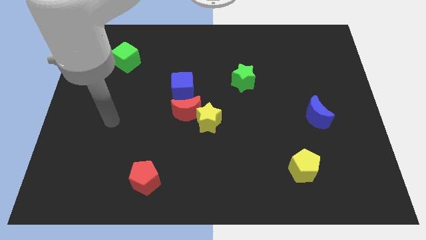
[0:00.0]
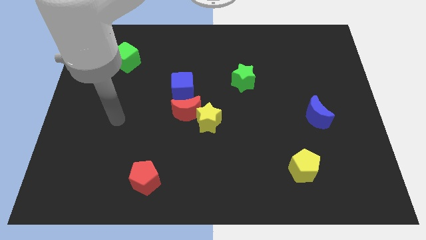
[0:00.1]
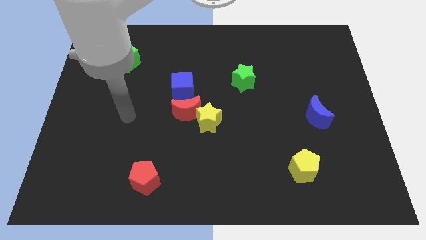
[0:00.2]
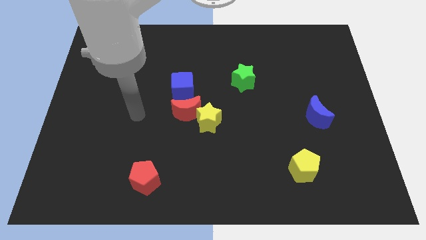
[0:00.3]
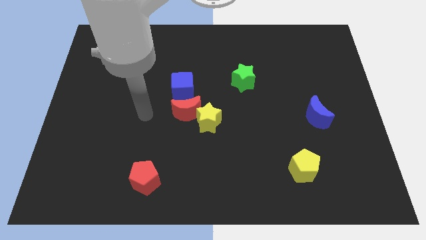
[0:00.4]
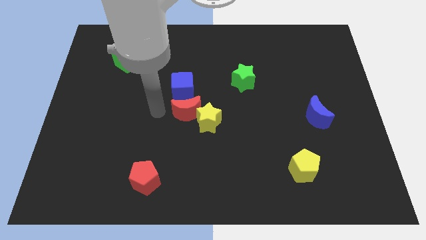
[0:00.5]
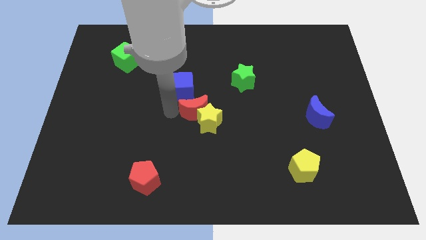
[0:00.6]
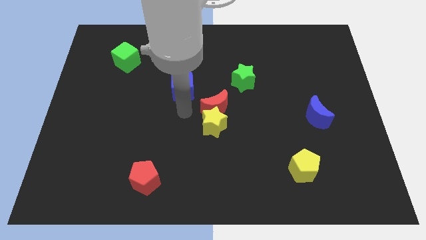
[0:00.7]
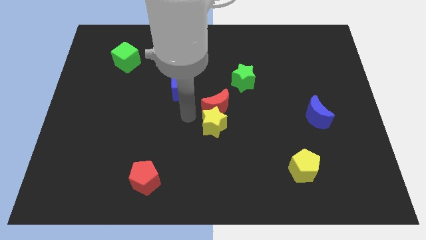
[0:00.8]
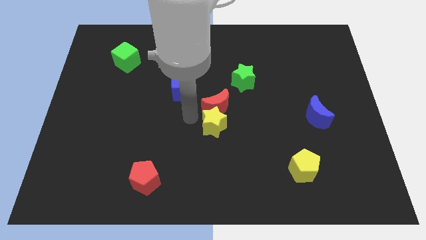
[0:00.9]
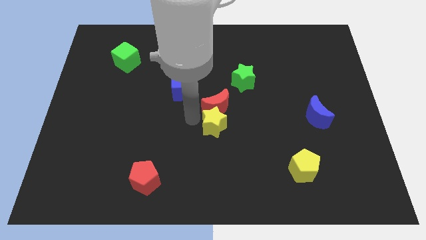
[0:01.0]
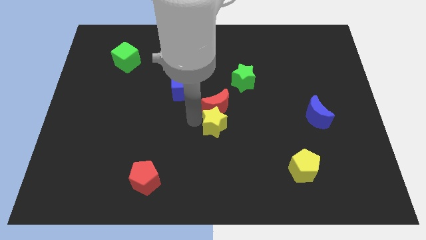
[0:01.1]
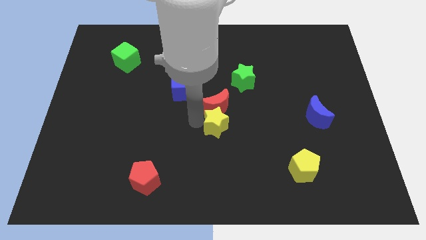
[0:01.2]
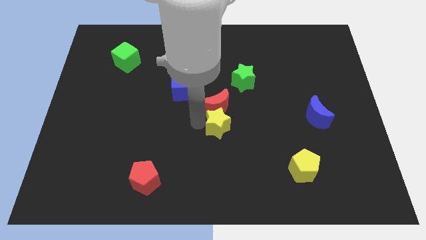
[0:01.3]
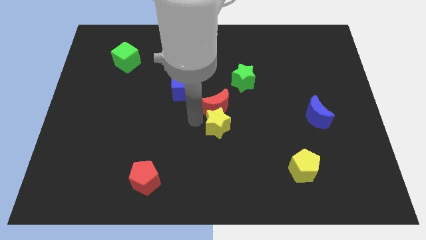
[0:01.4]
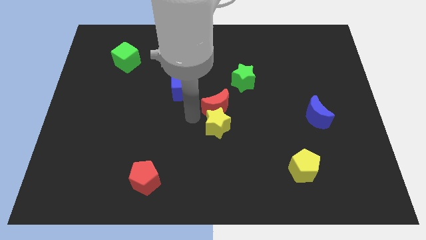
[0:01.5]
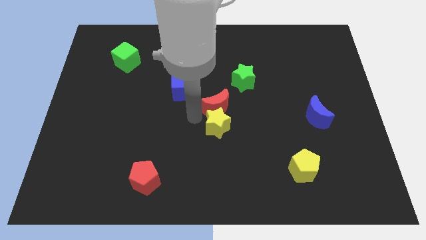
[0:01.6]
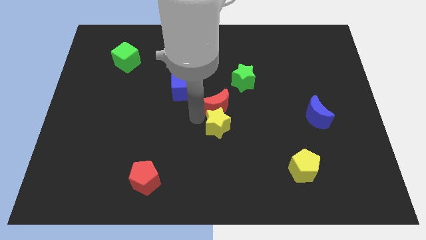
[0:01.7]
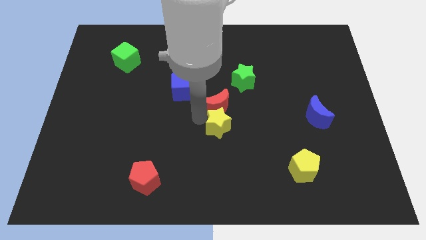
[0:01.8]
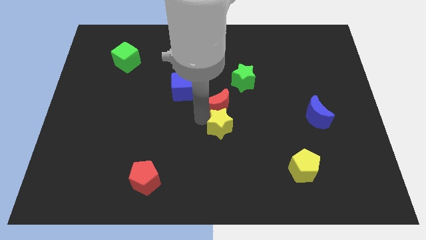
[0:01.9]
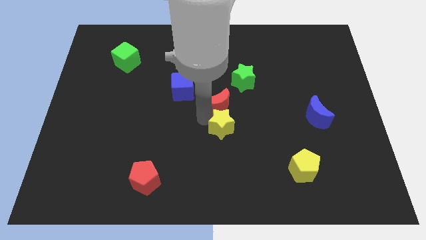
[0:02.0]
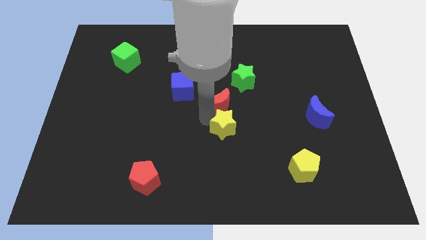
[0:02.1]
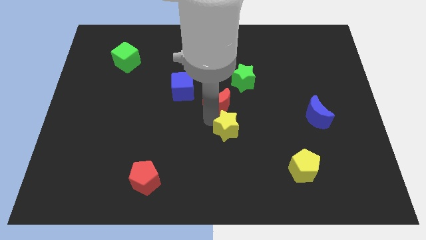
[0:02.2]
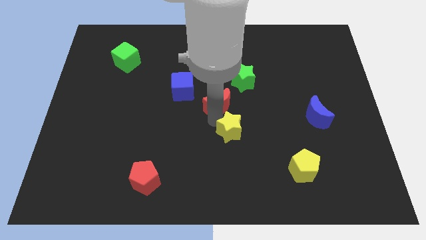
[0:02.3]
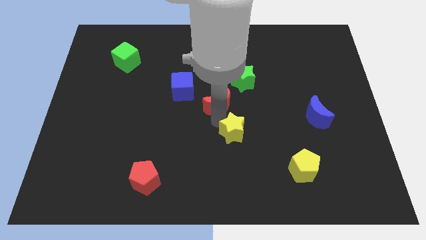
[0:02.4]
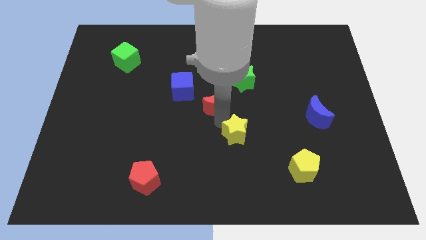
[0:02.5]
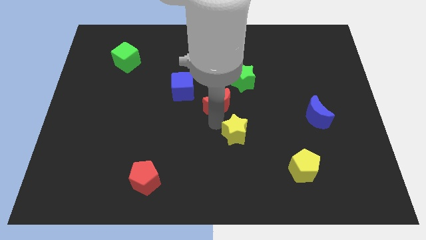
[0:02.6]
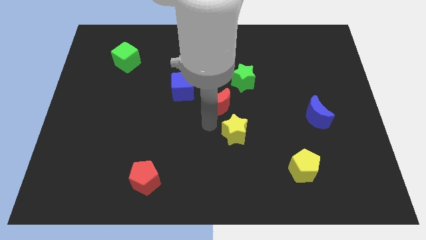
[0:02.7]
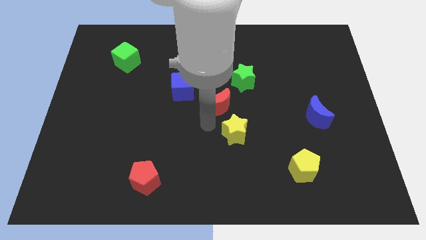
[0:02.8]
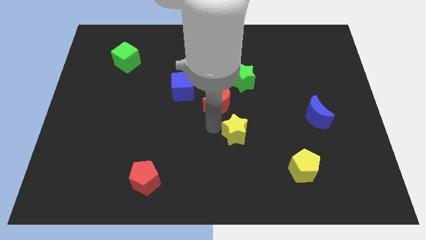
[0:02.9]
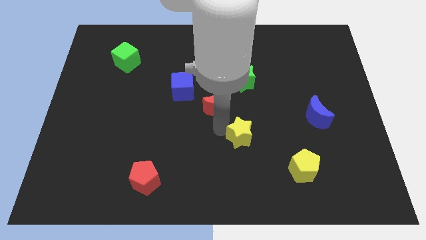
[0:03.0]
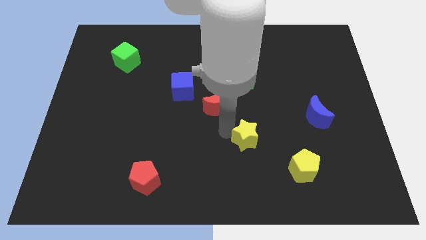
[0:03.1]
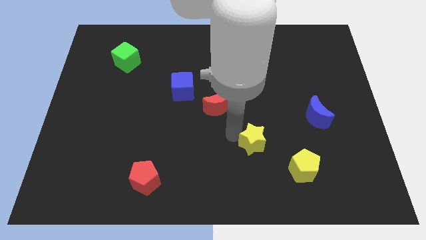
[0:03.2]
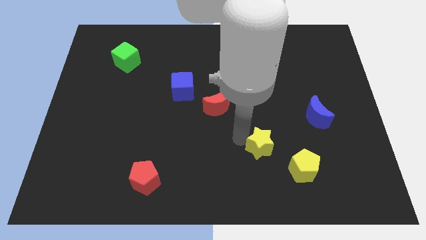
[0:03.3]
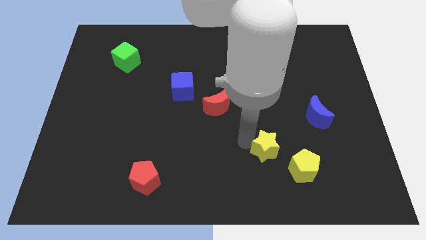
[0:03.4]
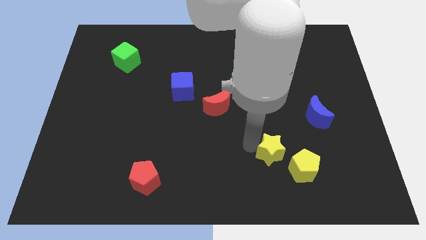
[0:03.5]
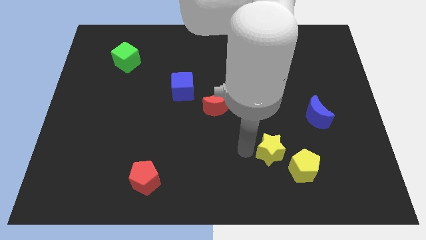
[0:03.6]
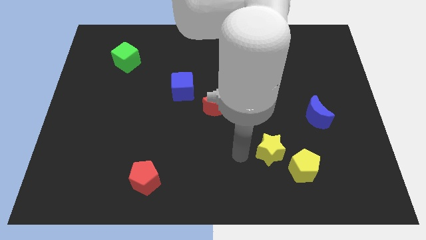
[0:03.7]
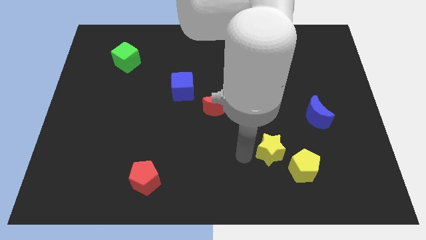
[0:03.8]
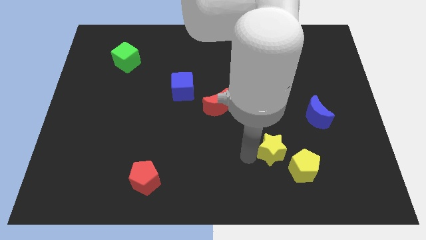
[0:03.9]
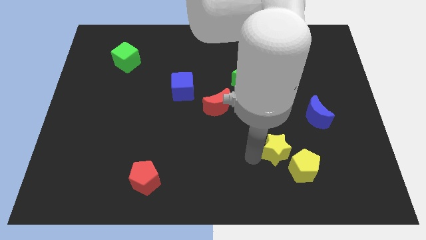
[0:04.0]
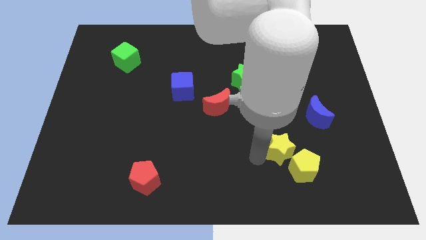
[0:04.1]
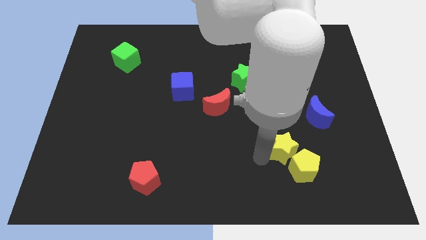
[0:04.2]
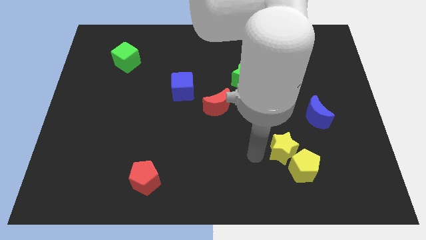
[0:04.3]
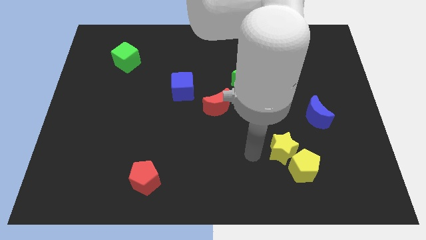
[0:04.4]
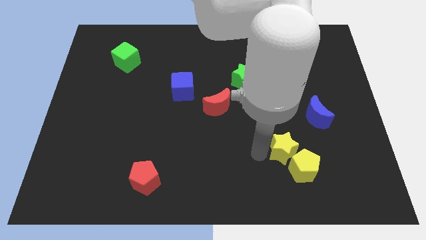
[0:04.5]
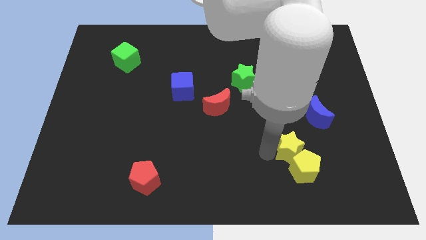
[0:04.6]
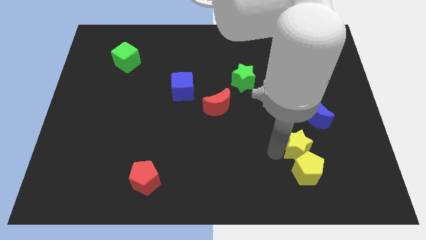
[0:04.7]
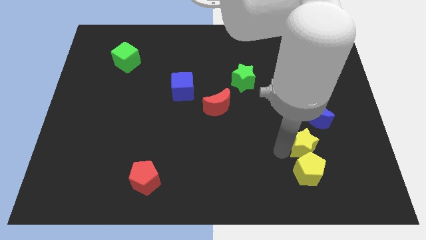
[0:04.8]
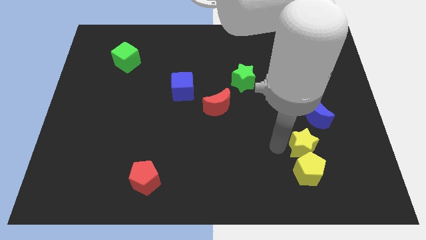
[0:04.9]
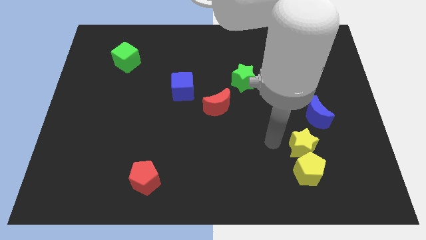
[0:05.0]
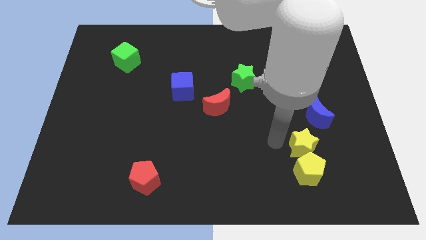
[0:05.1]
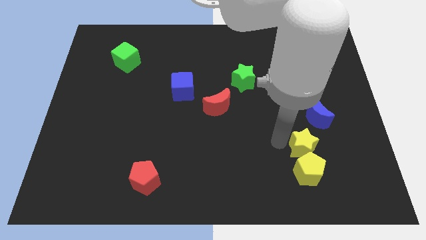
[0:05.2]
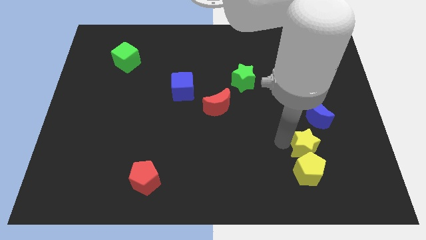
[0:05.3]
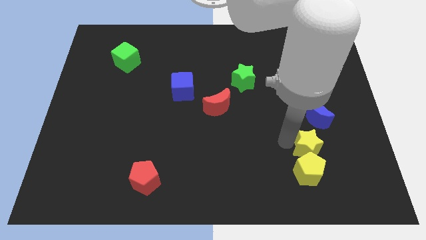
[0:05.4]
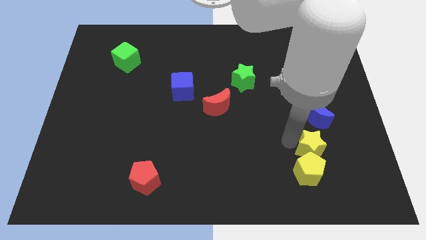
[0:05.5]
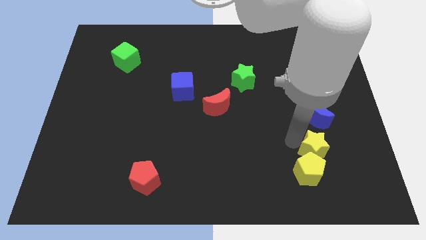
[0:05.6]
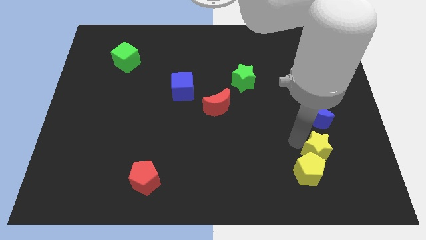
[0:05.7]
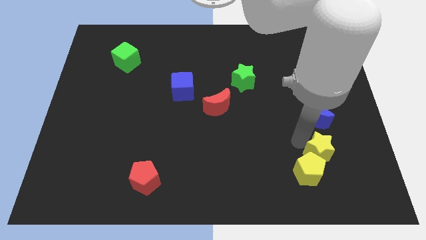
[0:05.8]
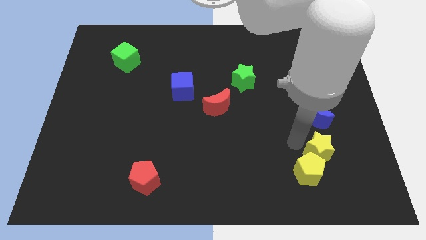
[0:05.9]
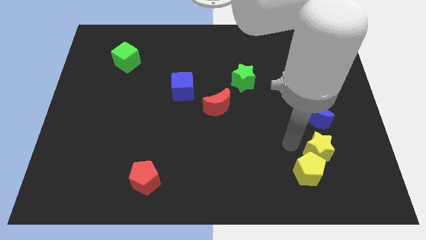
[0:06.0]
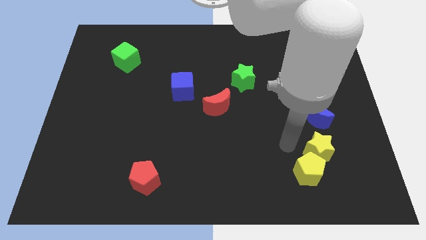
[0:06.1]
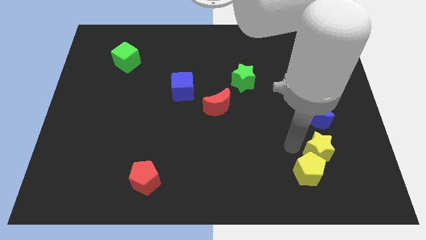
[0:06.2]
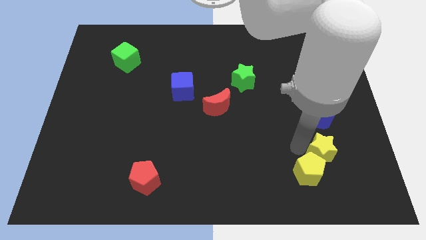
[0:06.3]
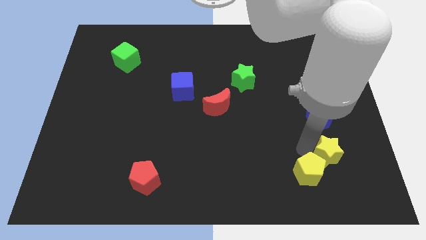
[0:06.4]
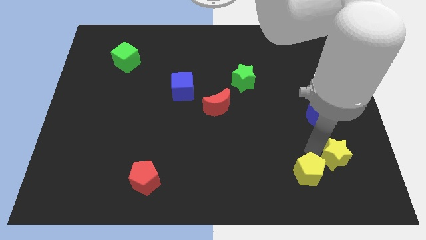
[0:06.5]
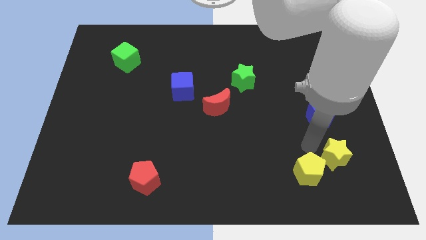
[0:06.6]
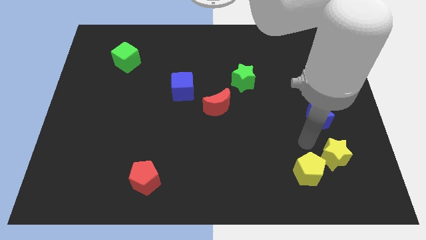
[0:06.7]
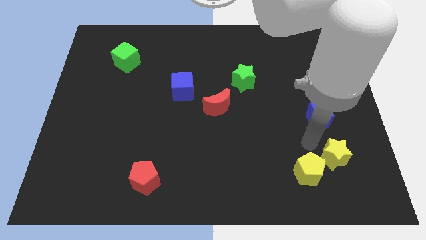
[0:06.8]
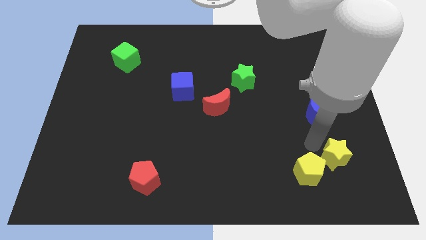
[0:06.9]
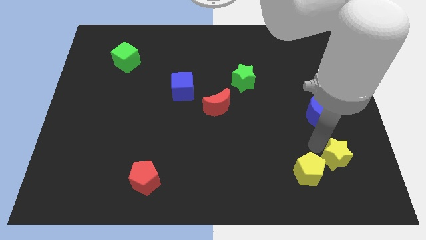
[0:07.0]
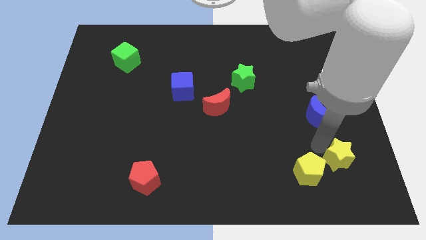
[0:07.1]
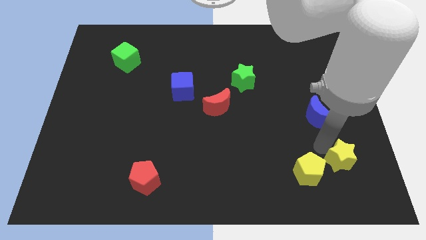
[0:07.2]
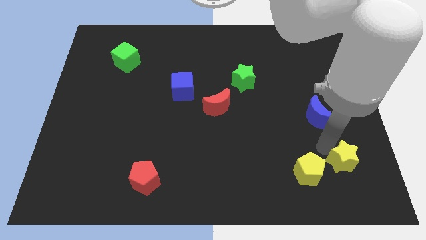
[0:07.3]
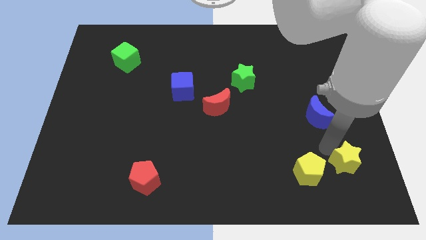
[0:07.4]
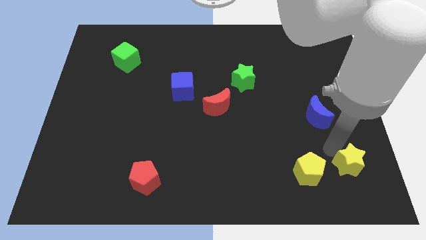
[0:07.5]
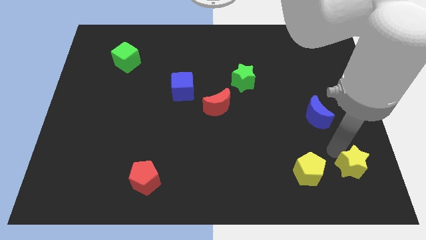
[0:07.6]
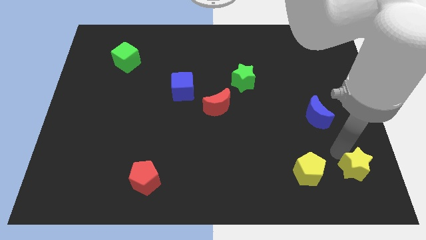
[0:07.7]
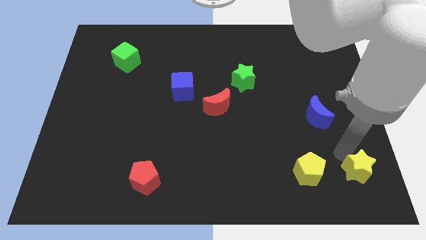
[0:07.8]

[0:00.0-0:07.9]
put the yellow star to the bottom right of the board

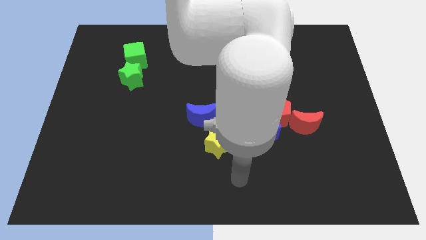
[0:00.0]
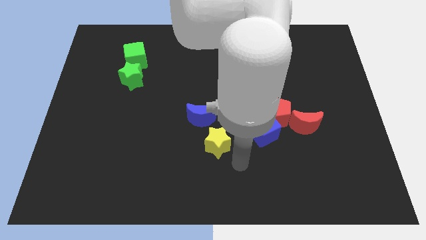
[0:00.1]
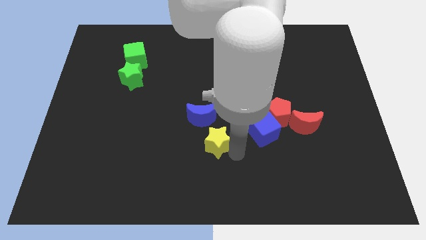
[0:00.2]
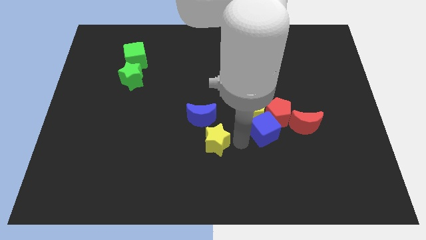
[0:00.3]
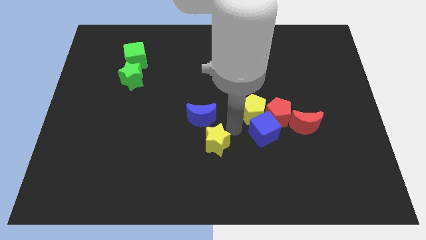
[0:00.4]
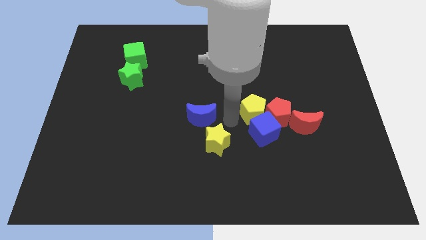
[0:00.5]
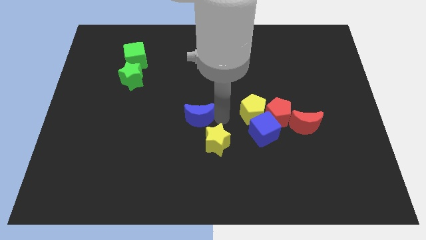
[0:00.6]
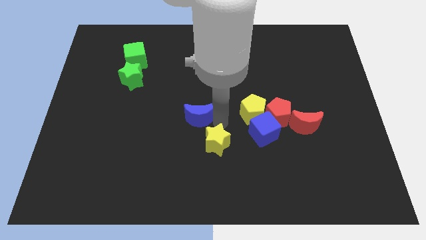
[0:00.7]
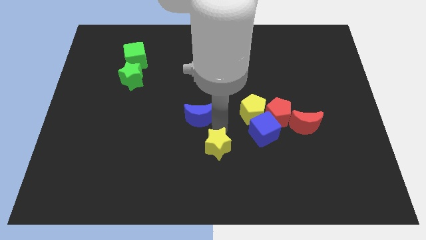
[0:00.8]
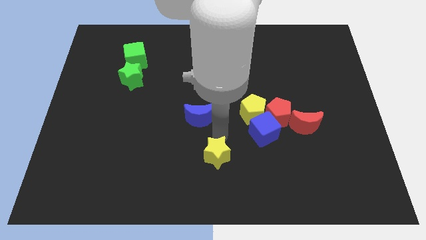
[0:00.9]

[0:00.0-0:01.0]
put the yellow star to the bottom side
